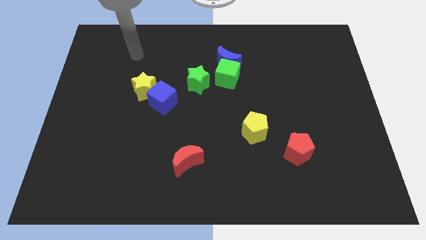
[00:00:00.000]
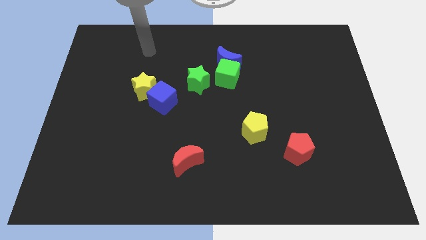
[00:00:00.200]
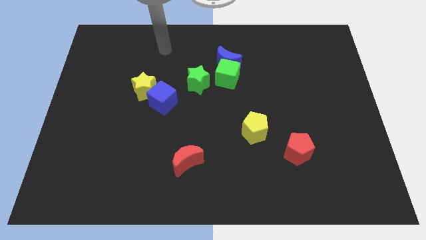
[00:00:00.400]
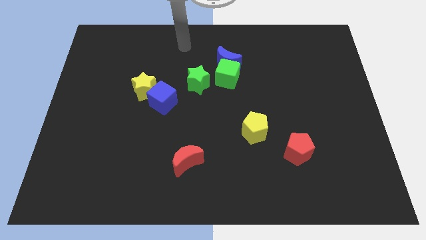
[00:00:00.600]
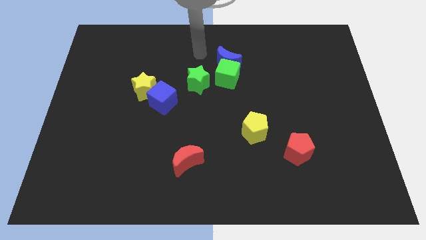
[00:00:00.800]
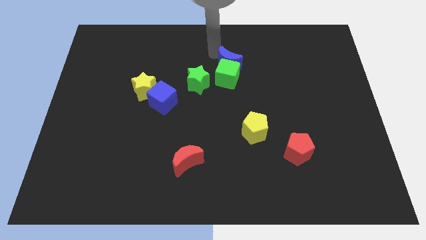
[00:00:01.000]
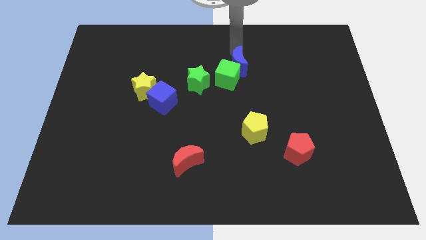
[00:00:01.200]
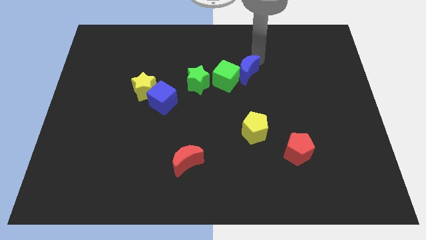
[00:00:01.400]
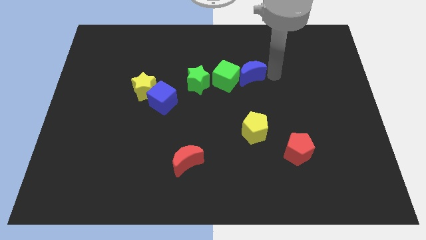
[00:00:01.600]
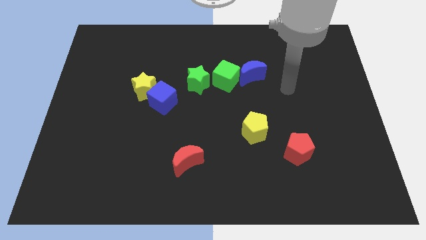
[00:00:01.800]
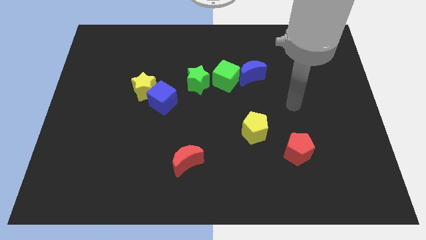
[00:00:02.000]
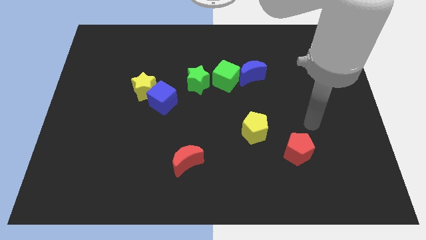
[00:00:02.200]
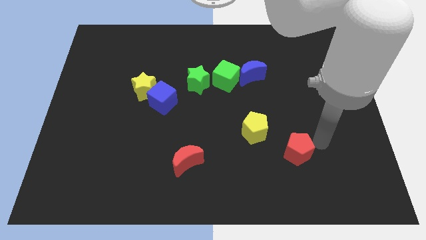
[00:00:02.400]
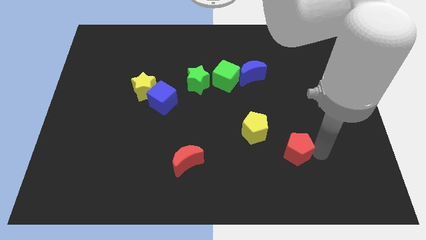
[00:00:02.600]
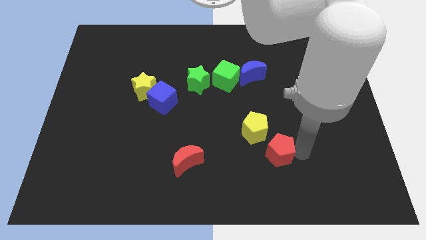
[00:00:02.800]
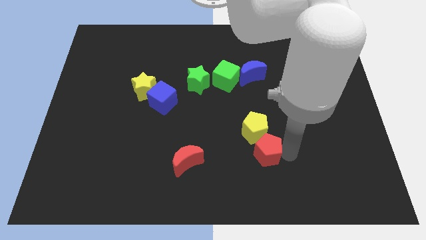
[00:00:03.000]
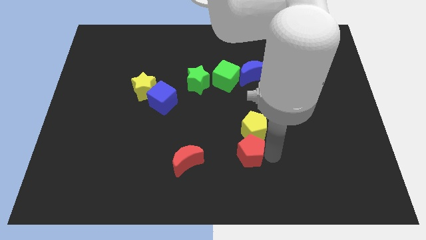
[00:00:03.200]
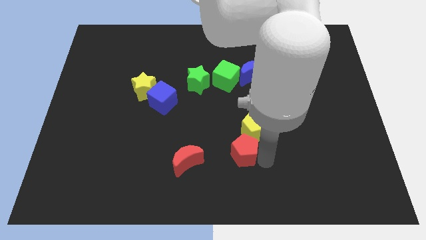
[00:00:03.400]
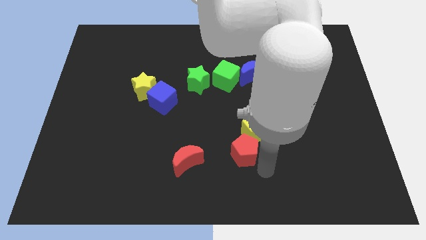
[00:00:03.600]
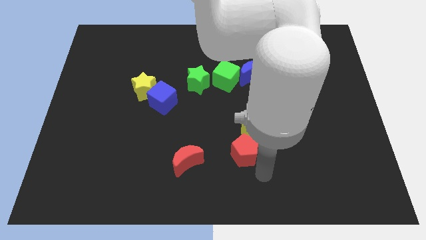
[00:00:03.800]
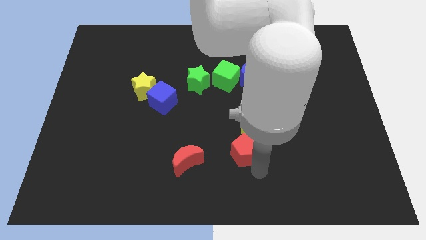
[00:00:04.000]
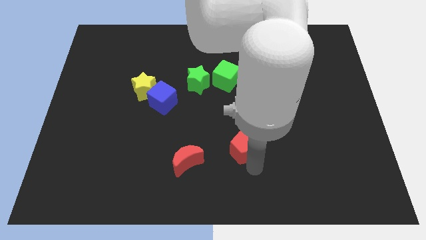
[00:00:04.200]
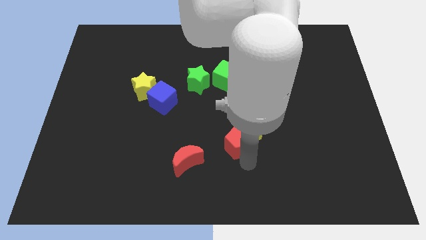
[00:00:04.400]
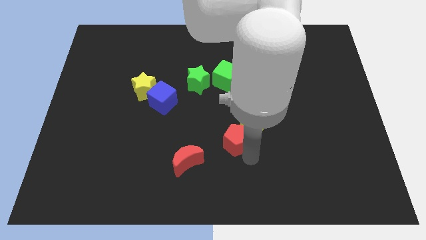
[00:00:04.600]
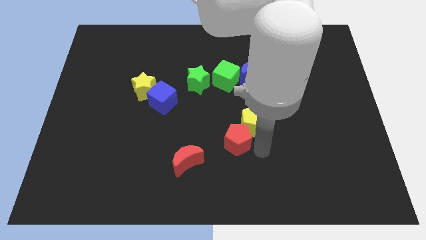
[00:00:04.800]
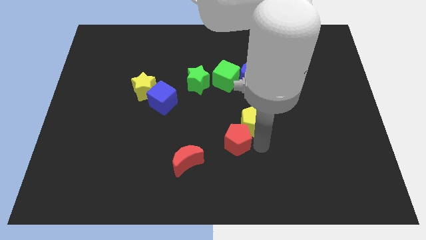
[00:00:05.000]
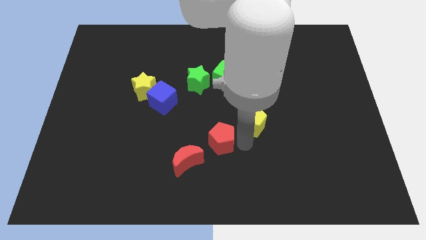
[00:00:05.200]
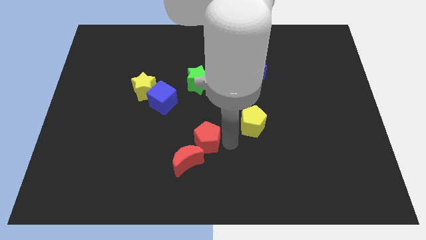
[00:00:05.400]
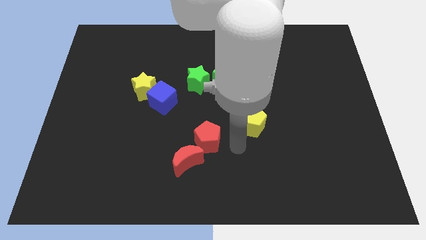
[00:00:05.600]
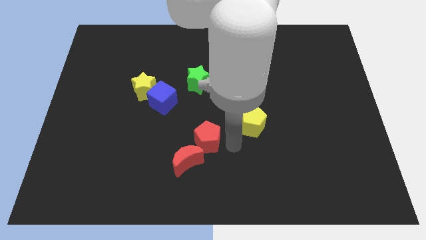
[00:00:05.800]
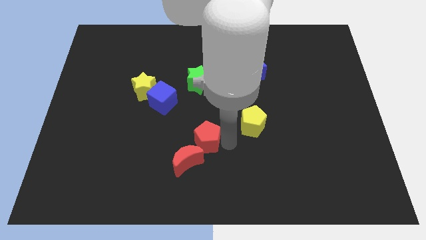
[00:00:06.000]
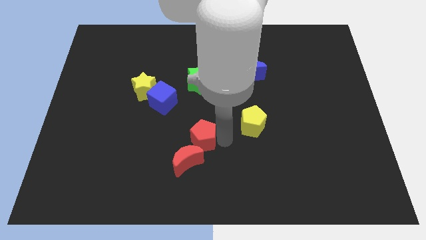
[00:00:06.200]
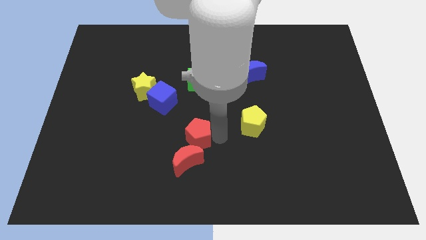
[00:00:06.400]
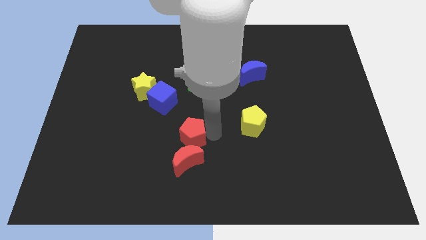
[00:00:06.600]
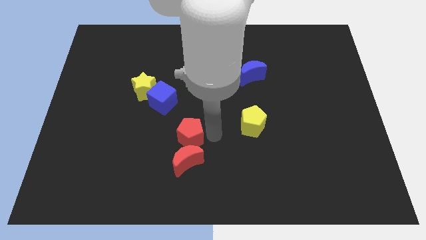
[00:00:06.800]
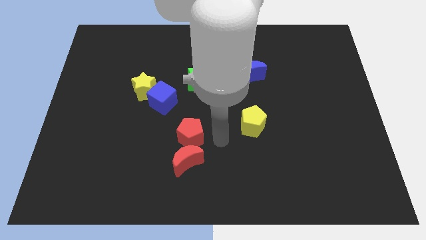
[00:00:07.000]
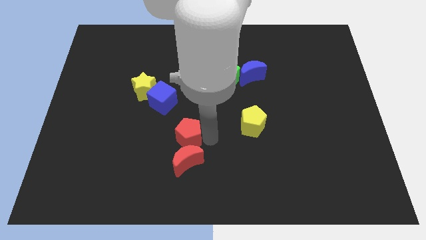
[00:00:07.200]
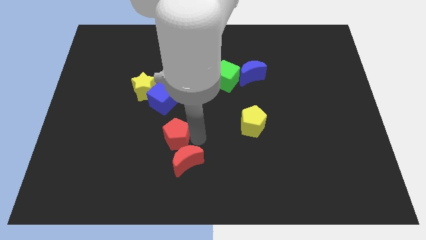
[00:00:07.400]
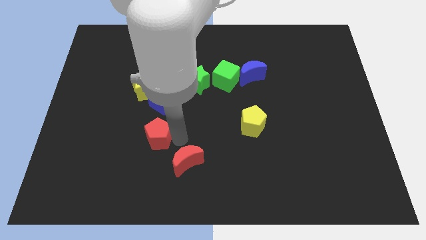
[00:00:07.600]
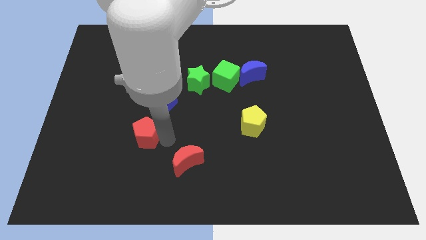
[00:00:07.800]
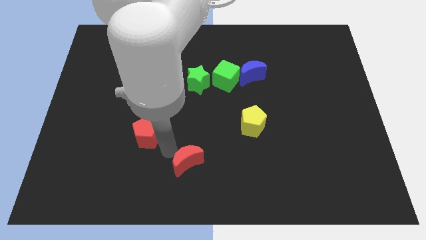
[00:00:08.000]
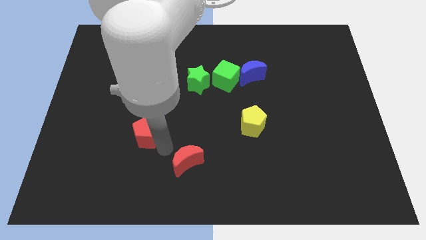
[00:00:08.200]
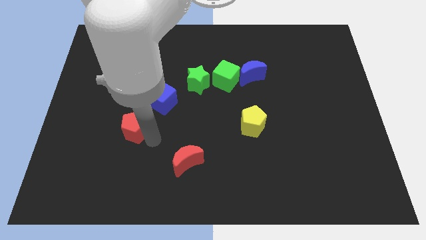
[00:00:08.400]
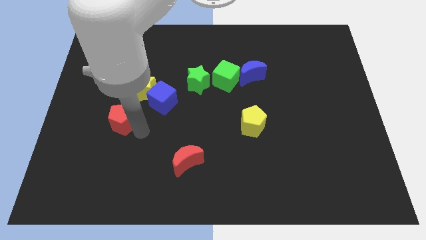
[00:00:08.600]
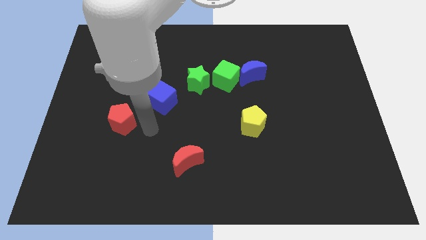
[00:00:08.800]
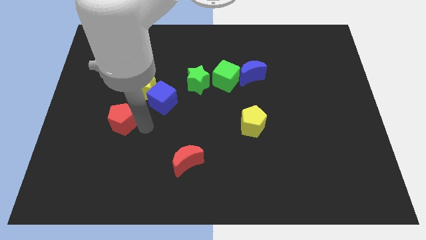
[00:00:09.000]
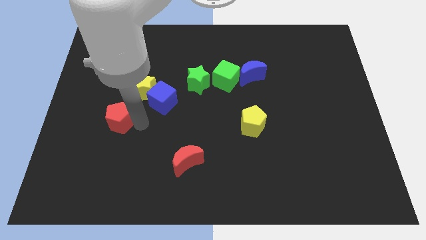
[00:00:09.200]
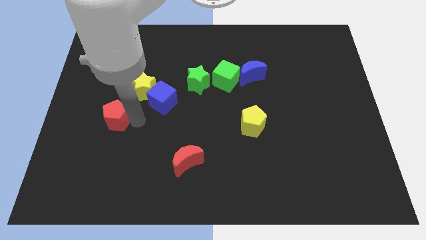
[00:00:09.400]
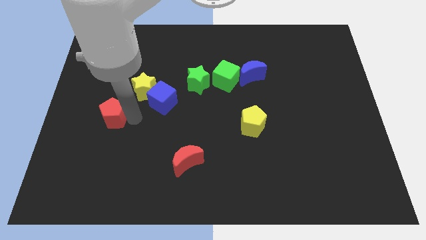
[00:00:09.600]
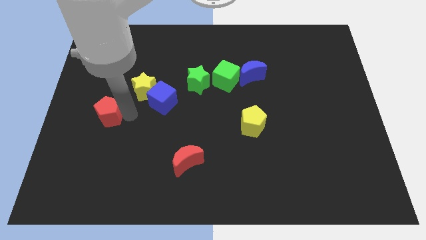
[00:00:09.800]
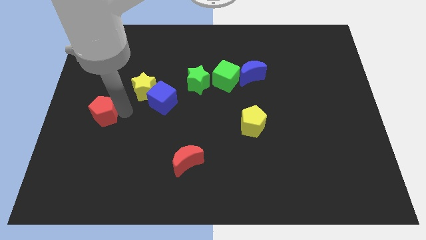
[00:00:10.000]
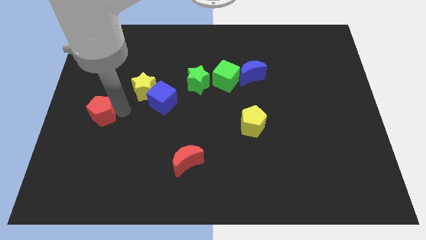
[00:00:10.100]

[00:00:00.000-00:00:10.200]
move the red pentagon to the left side
